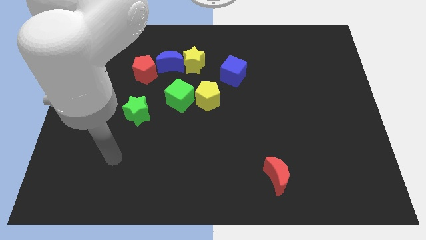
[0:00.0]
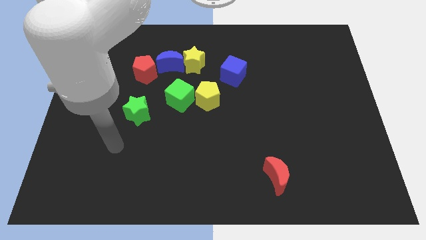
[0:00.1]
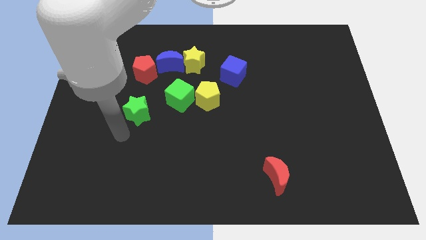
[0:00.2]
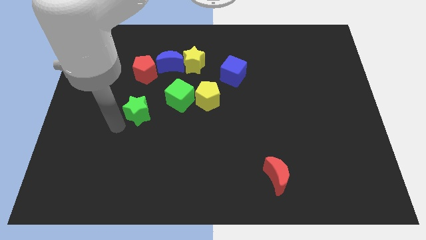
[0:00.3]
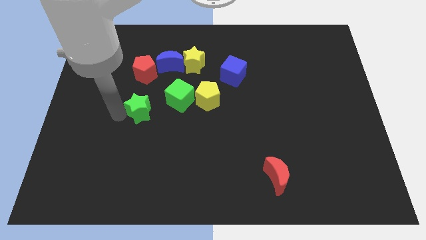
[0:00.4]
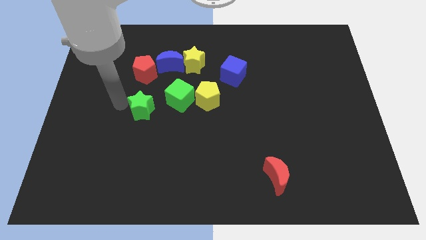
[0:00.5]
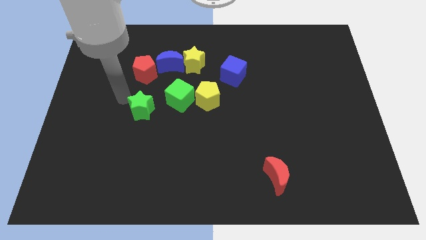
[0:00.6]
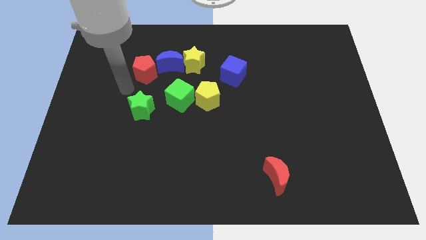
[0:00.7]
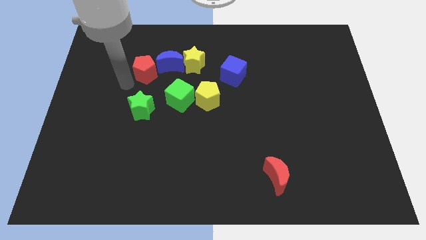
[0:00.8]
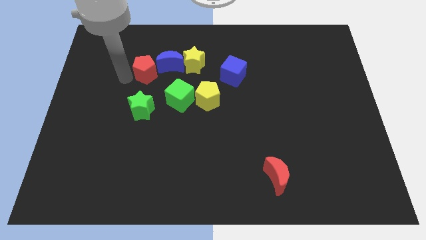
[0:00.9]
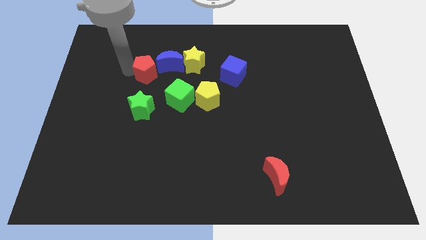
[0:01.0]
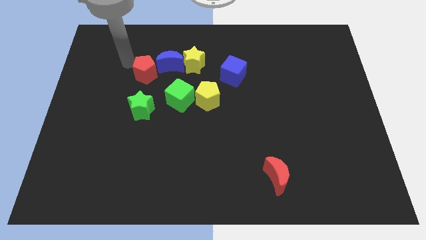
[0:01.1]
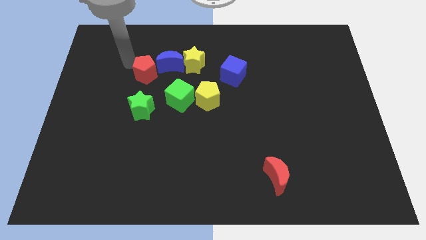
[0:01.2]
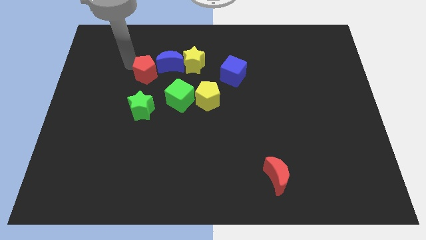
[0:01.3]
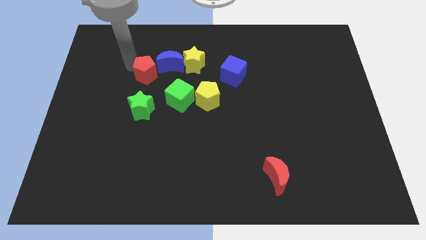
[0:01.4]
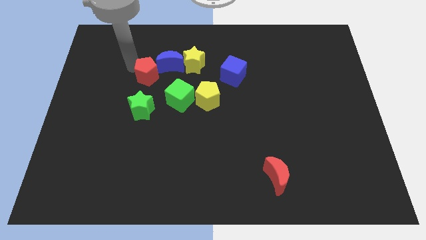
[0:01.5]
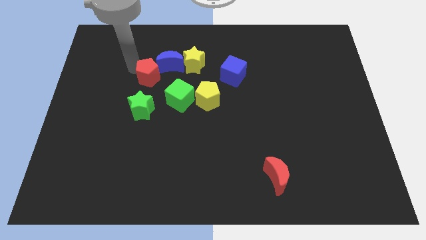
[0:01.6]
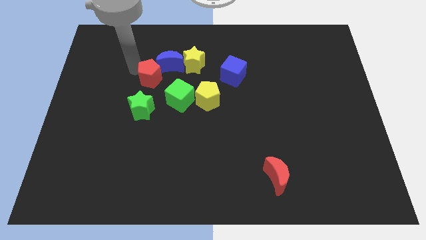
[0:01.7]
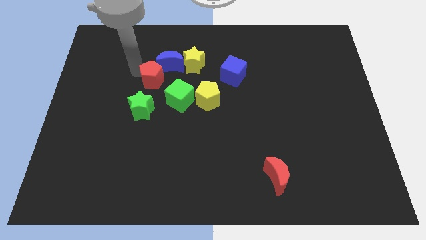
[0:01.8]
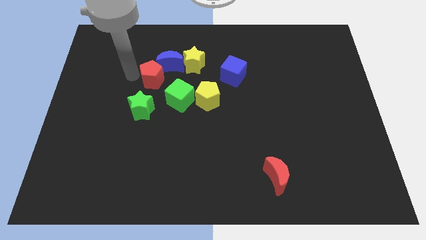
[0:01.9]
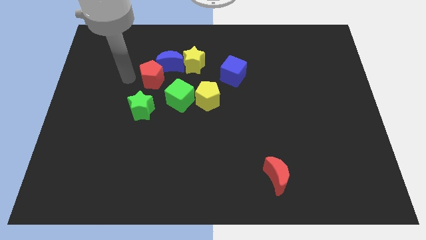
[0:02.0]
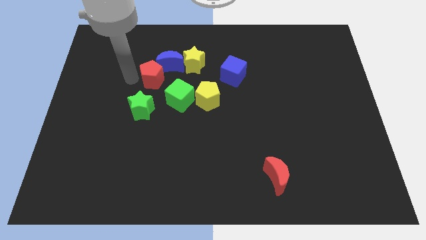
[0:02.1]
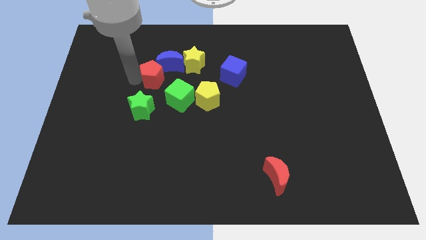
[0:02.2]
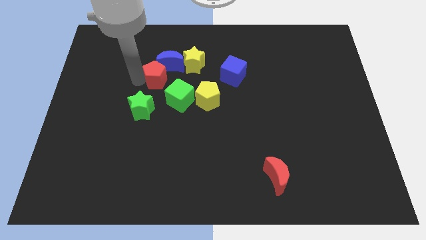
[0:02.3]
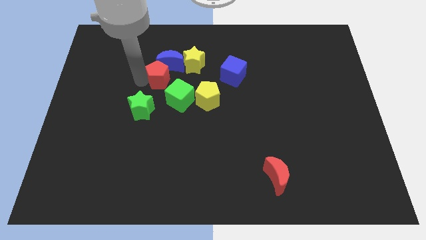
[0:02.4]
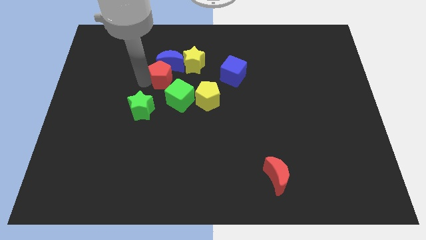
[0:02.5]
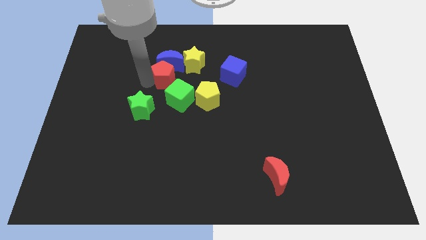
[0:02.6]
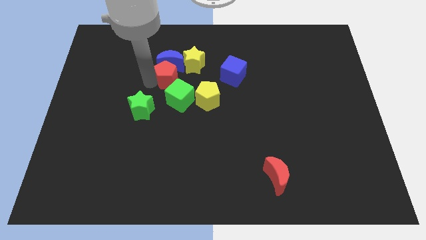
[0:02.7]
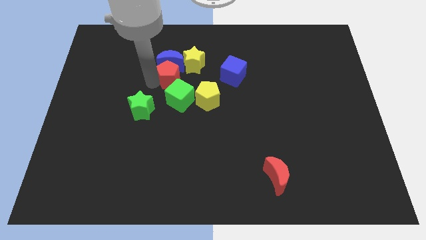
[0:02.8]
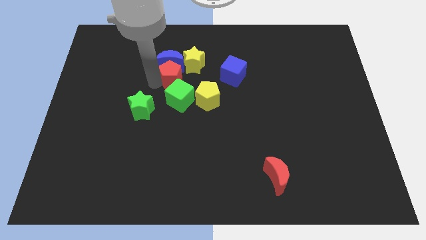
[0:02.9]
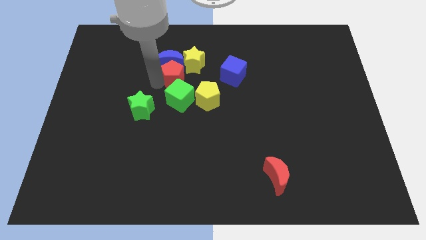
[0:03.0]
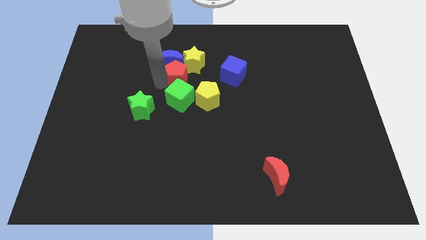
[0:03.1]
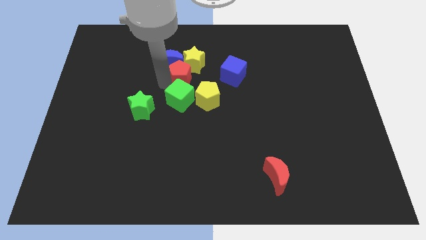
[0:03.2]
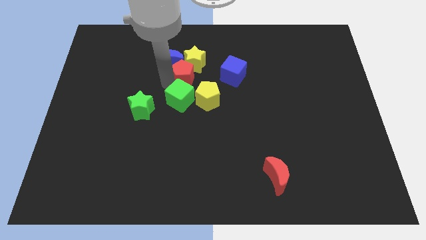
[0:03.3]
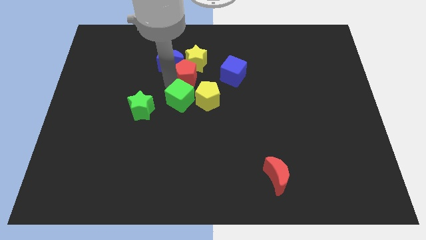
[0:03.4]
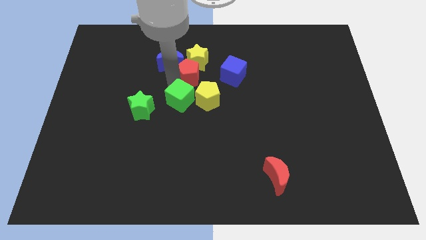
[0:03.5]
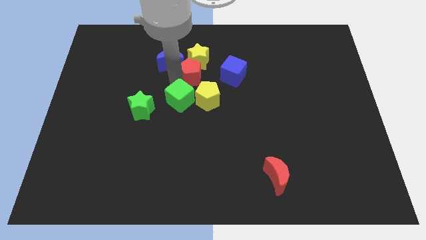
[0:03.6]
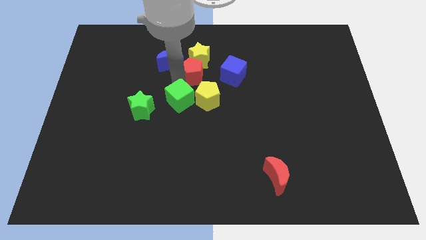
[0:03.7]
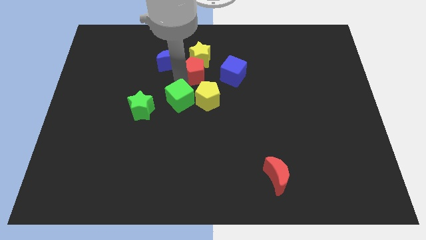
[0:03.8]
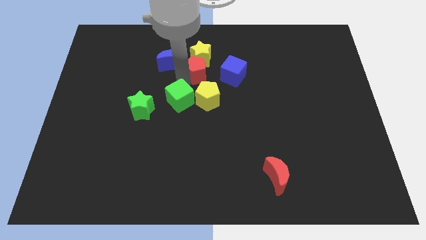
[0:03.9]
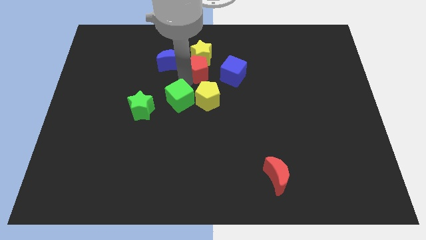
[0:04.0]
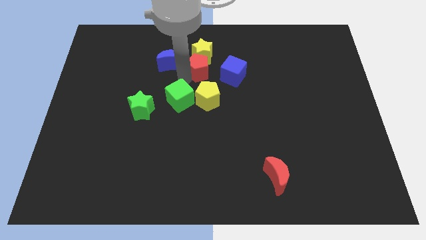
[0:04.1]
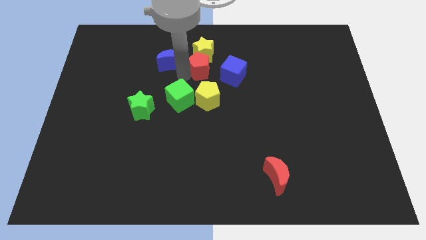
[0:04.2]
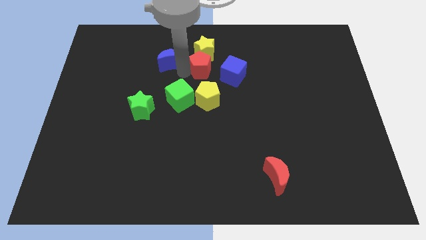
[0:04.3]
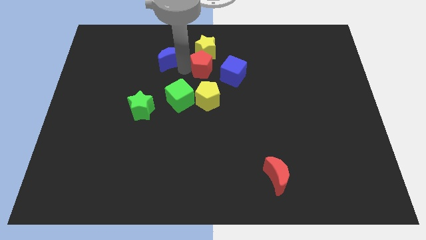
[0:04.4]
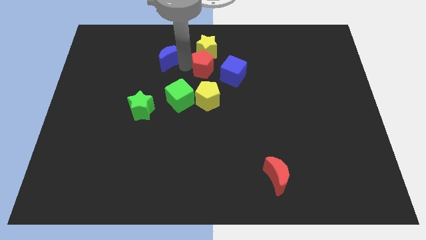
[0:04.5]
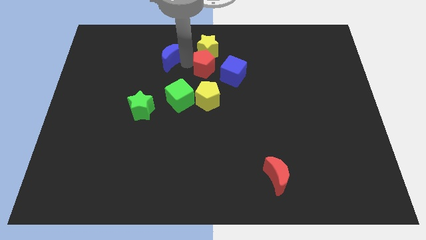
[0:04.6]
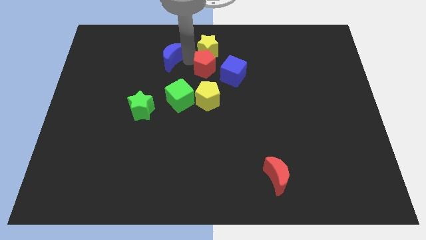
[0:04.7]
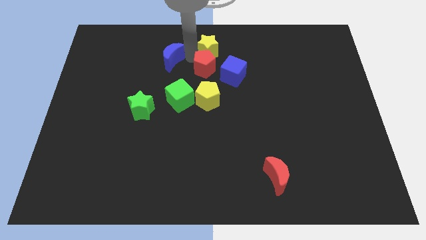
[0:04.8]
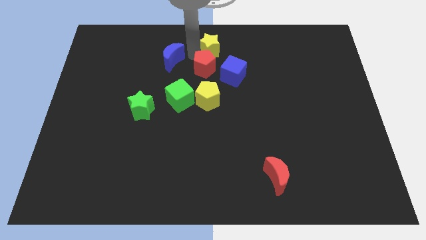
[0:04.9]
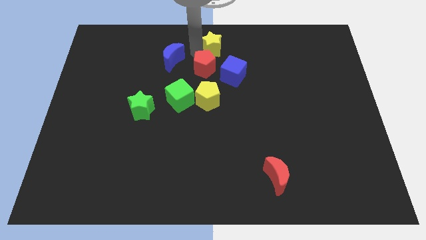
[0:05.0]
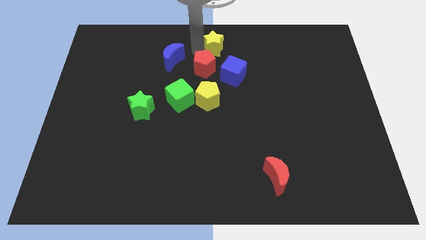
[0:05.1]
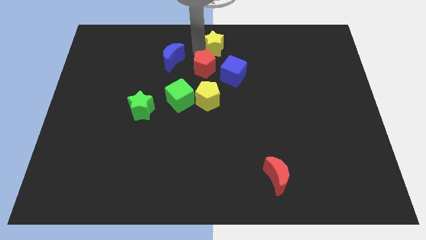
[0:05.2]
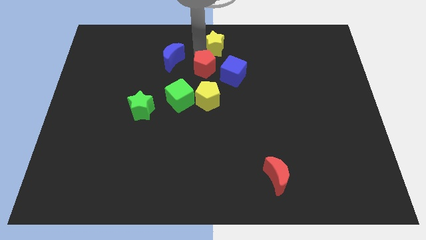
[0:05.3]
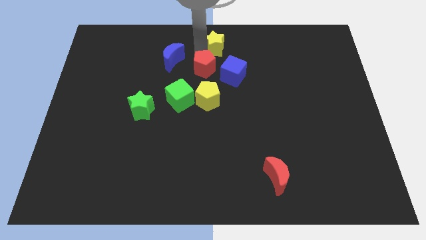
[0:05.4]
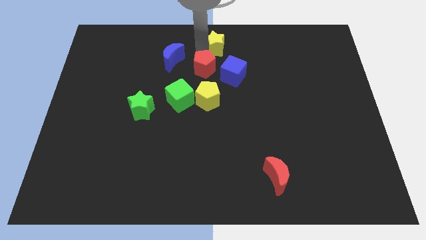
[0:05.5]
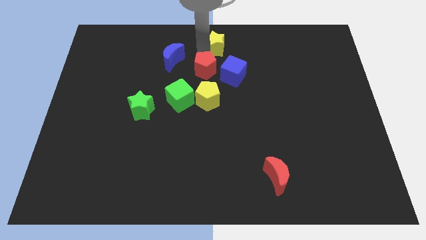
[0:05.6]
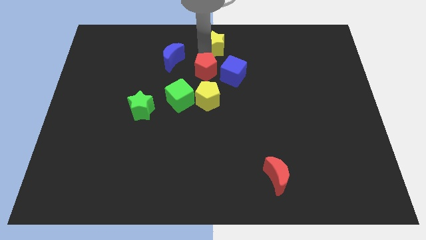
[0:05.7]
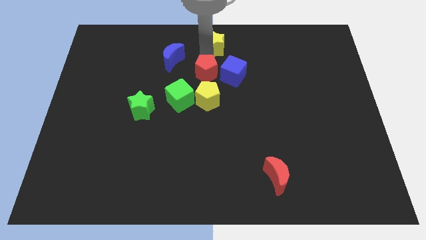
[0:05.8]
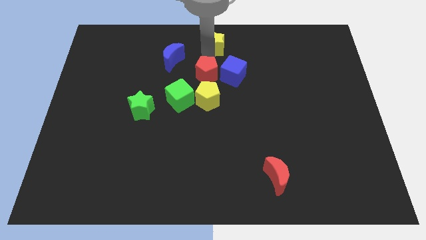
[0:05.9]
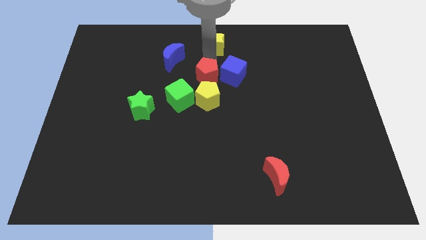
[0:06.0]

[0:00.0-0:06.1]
slide the red pentagon towards the blue cube

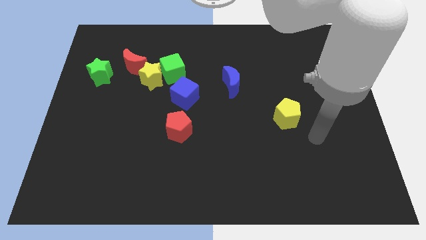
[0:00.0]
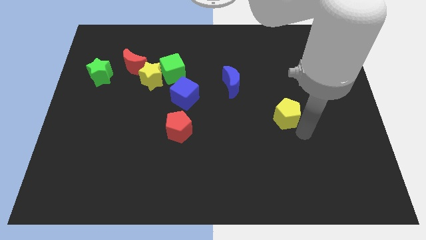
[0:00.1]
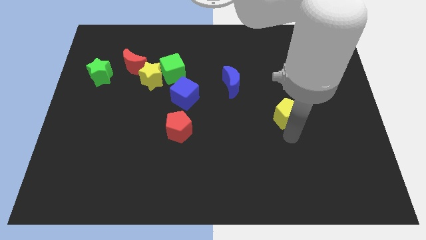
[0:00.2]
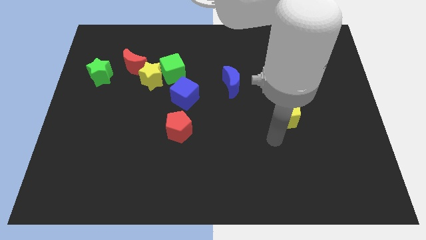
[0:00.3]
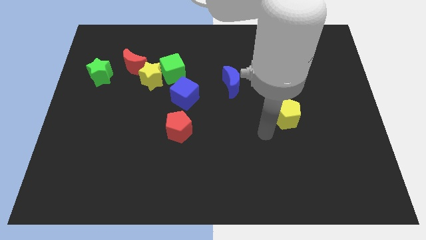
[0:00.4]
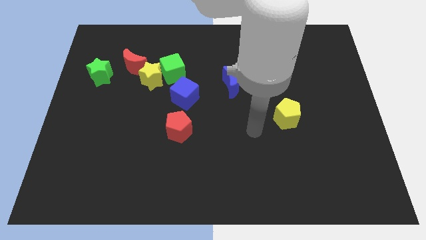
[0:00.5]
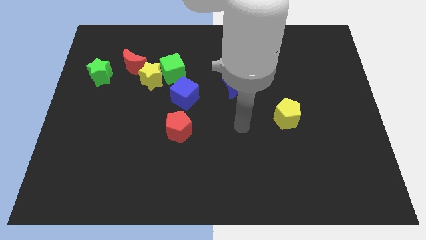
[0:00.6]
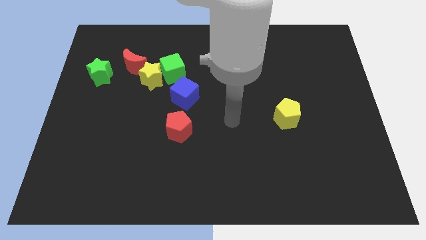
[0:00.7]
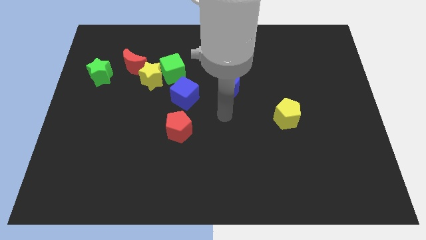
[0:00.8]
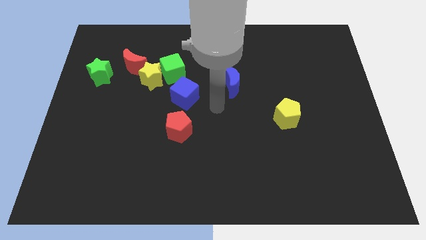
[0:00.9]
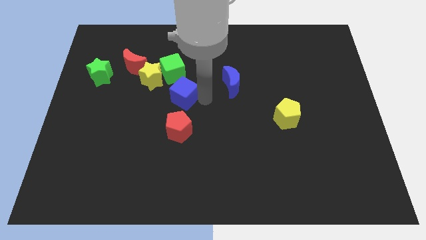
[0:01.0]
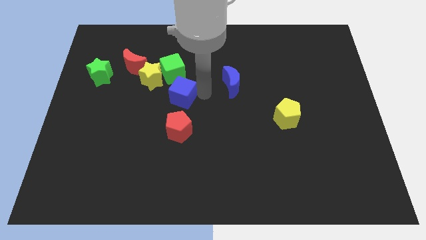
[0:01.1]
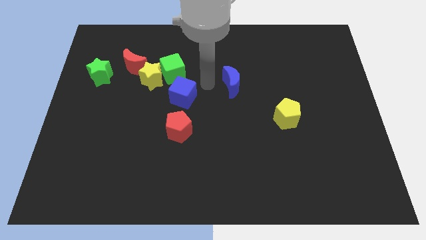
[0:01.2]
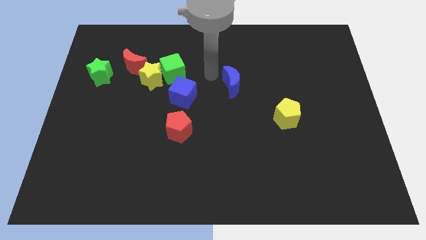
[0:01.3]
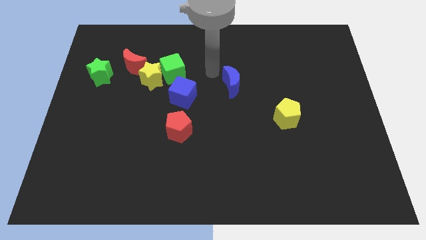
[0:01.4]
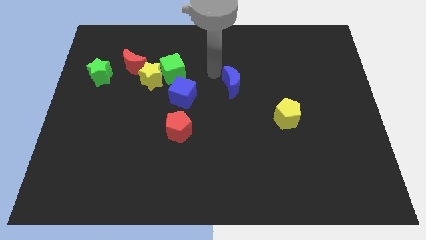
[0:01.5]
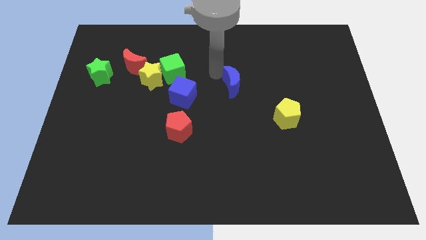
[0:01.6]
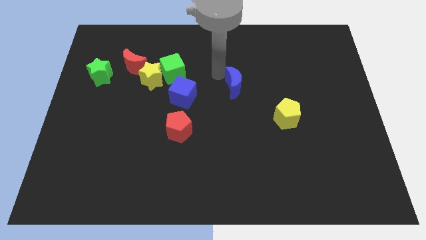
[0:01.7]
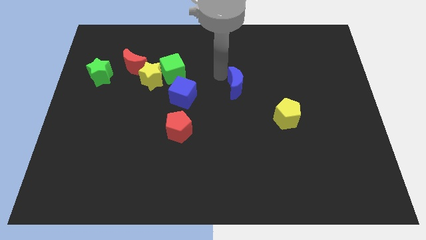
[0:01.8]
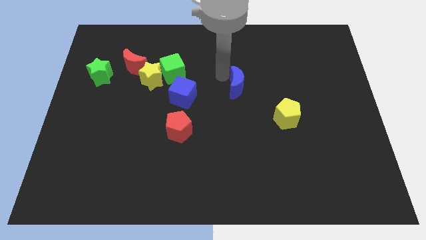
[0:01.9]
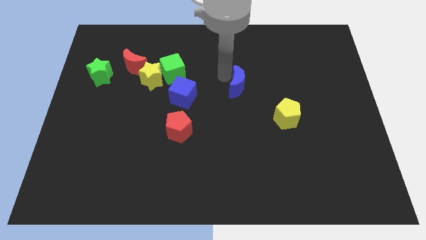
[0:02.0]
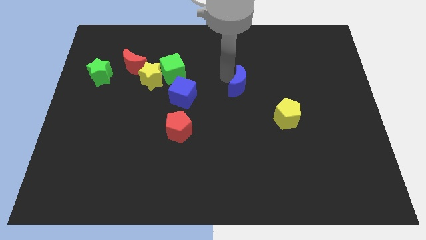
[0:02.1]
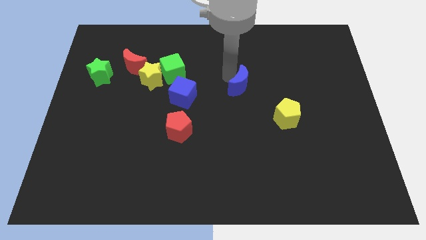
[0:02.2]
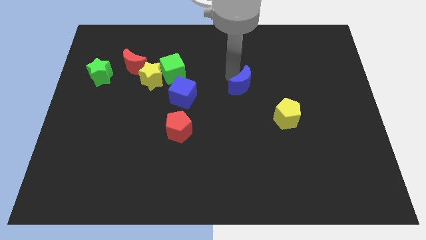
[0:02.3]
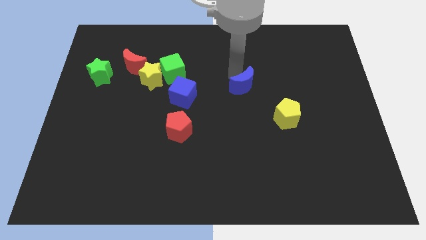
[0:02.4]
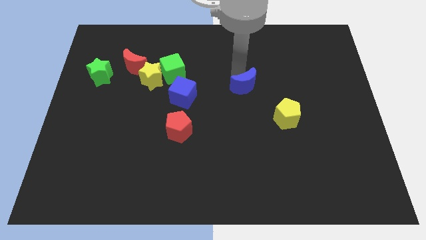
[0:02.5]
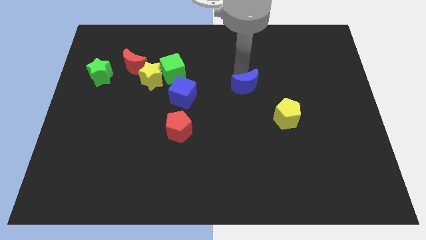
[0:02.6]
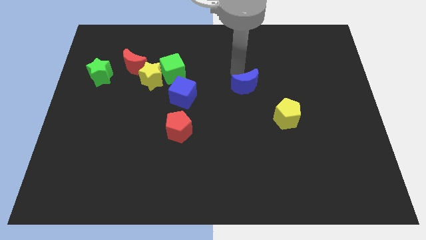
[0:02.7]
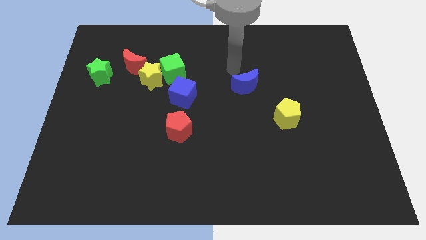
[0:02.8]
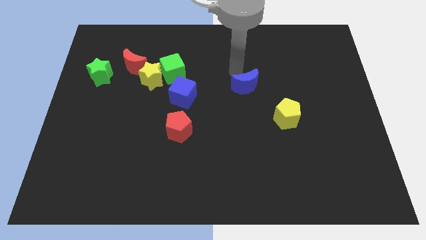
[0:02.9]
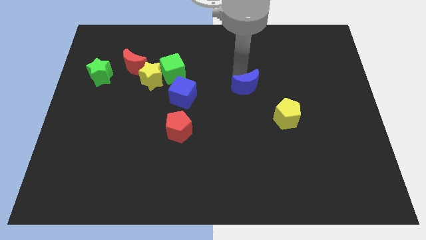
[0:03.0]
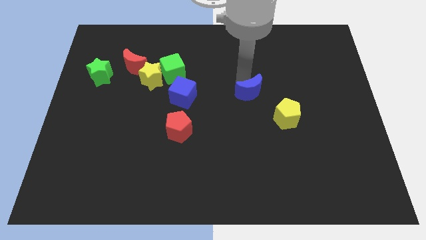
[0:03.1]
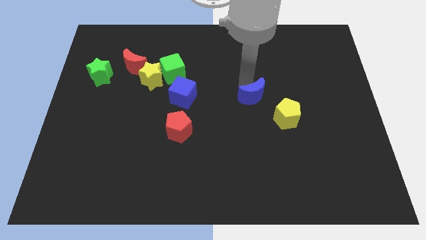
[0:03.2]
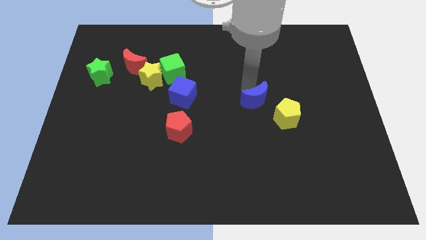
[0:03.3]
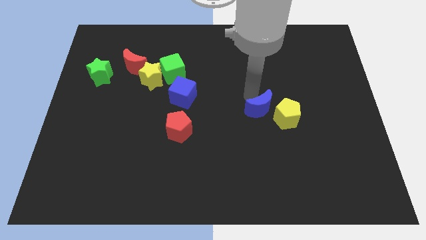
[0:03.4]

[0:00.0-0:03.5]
move the blue moon to the yellow pentagon
